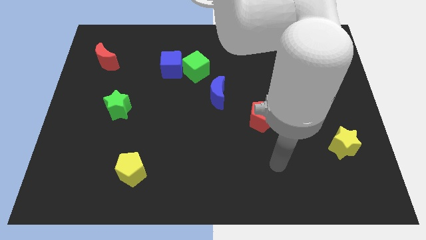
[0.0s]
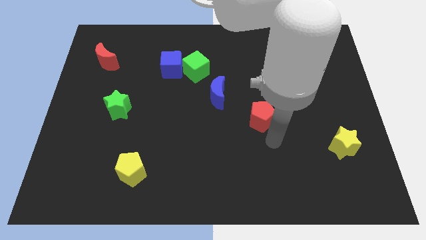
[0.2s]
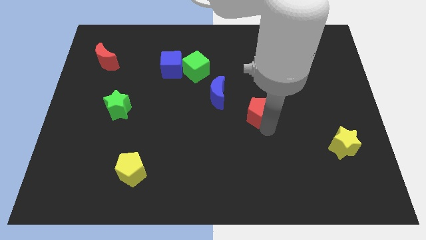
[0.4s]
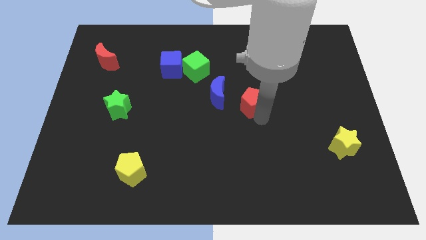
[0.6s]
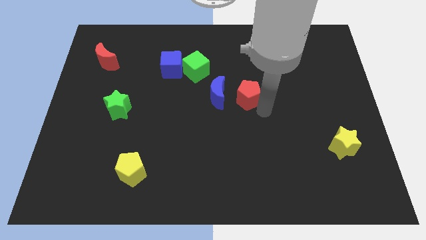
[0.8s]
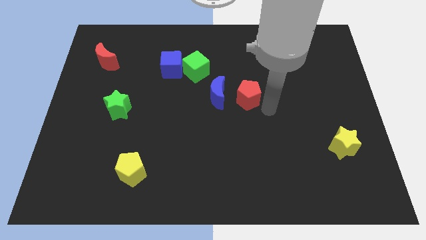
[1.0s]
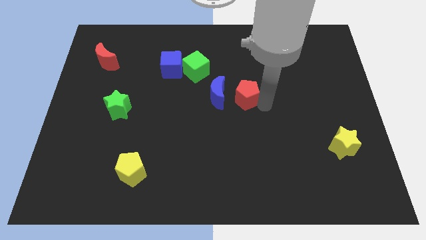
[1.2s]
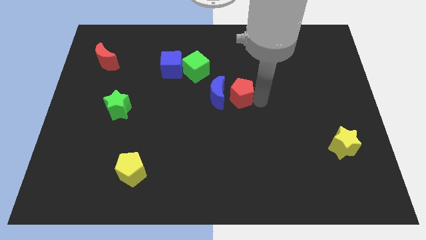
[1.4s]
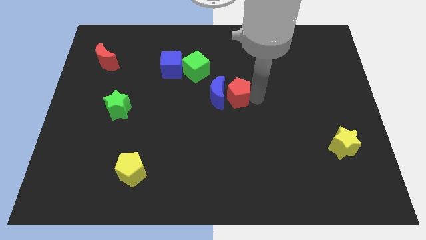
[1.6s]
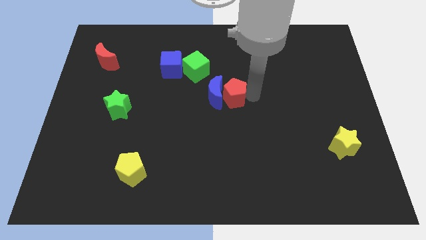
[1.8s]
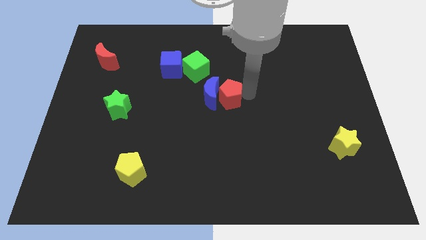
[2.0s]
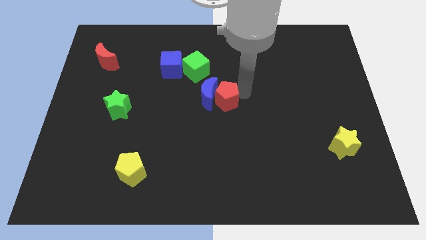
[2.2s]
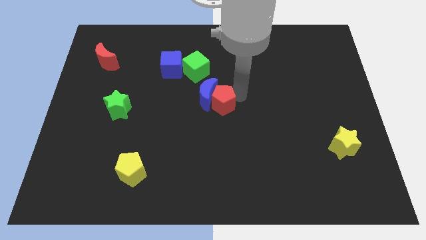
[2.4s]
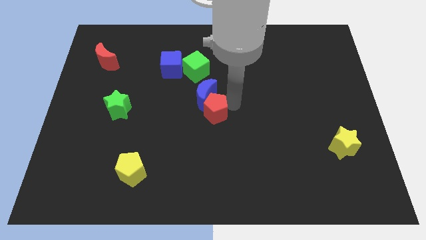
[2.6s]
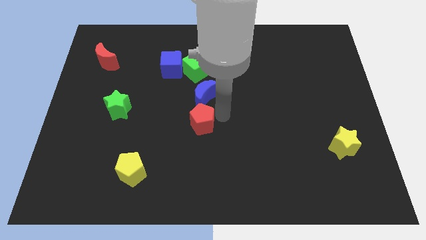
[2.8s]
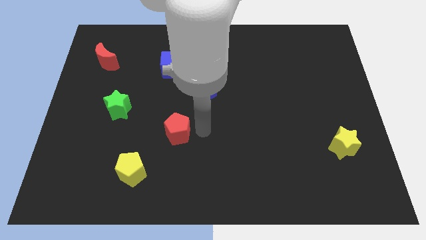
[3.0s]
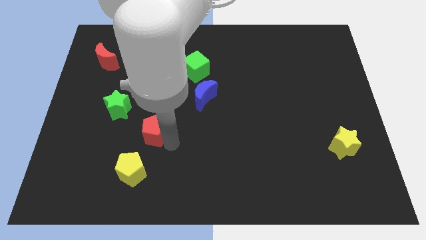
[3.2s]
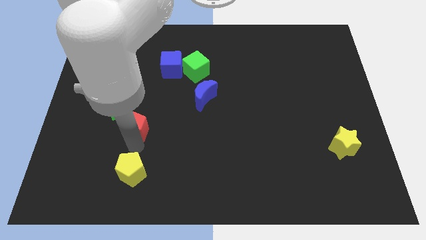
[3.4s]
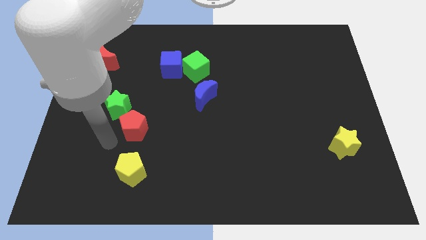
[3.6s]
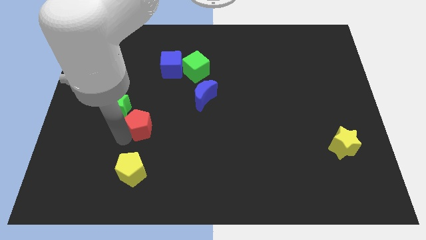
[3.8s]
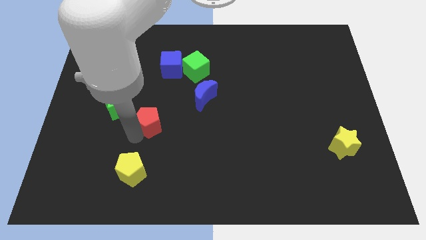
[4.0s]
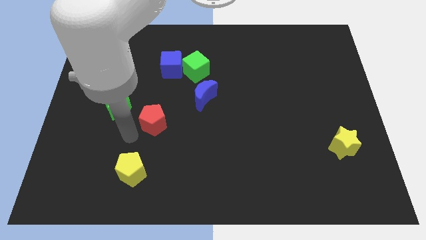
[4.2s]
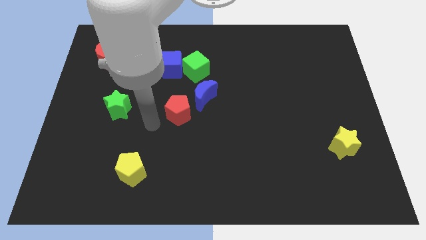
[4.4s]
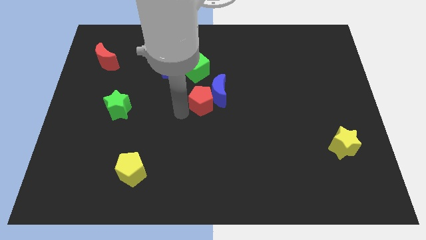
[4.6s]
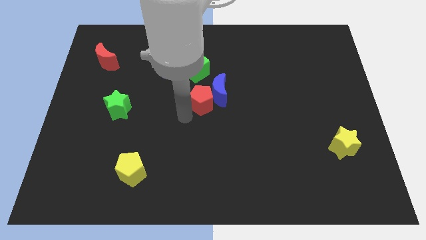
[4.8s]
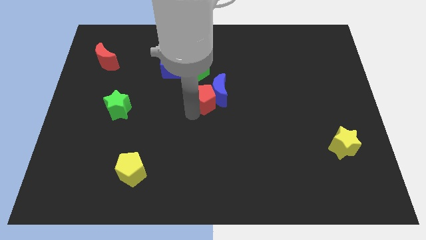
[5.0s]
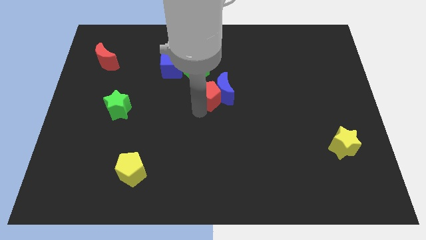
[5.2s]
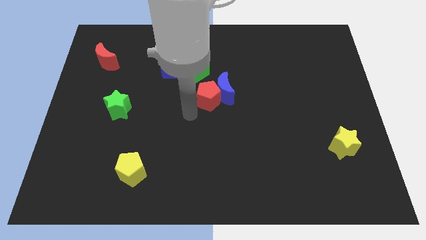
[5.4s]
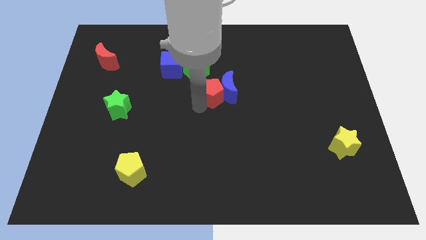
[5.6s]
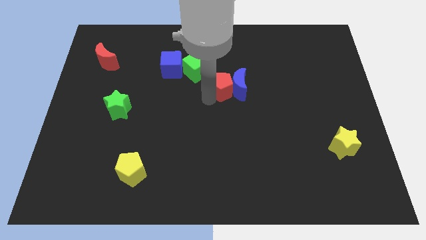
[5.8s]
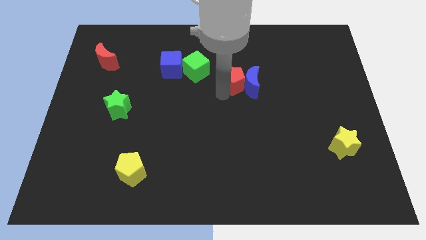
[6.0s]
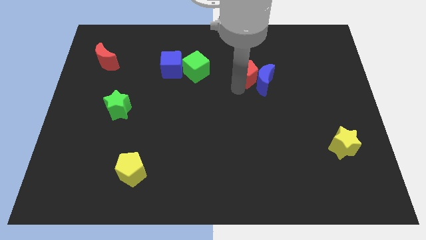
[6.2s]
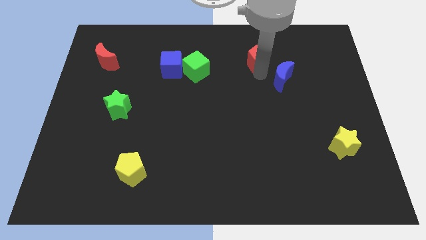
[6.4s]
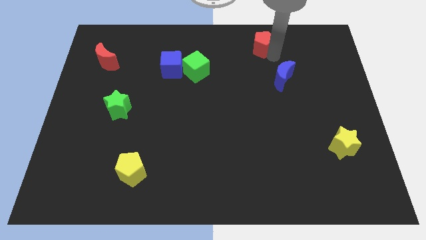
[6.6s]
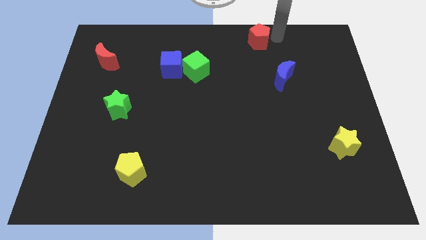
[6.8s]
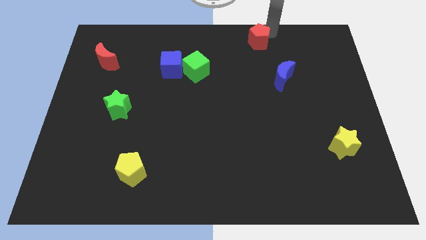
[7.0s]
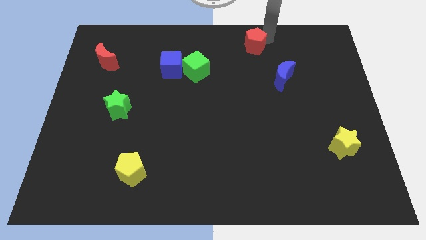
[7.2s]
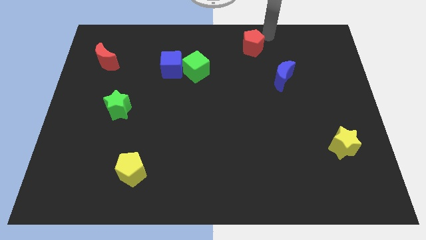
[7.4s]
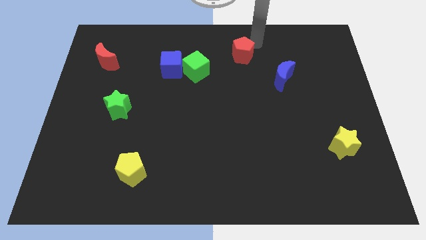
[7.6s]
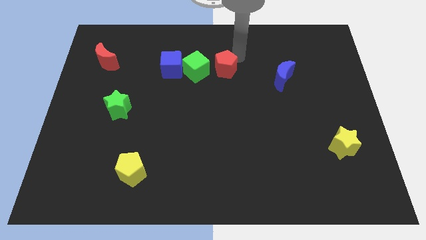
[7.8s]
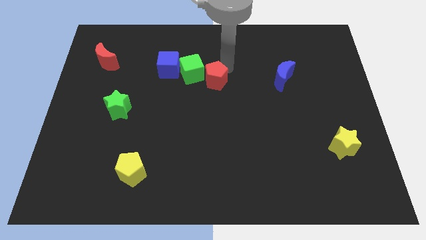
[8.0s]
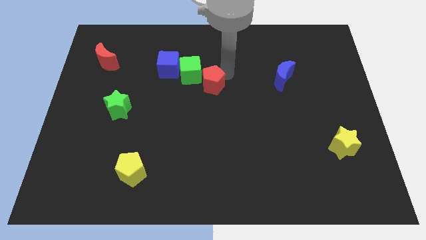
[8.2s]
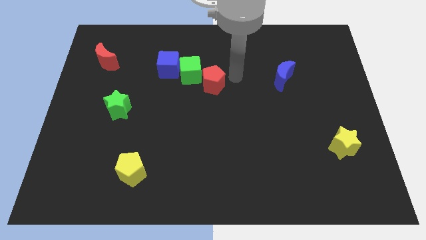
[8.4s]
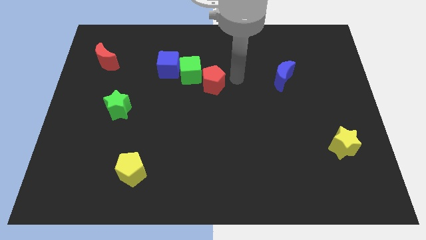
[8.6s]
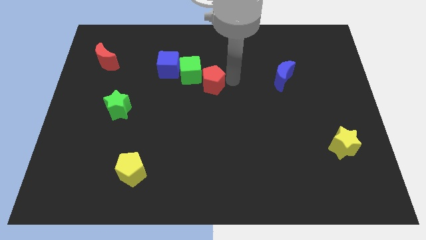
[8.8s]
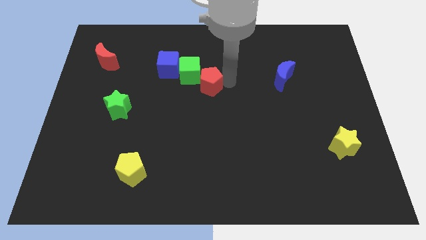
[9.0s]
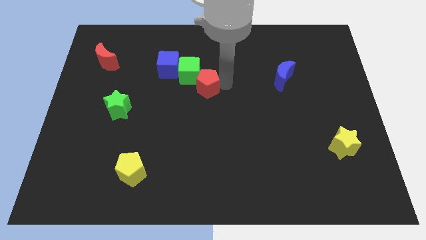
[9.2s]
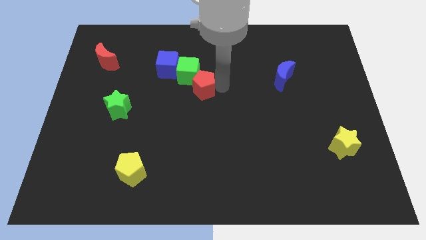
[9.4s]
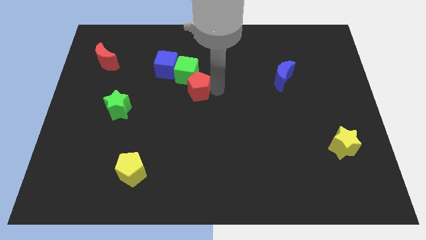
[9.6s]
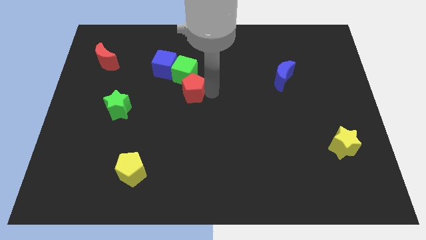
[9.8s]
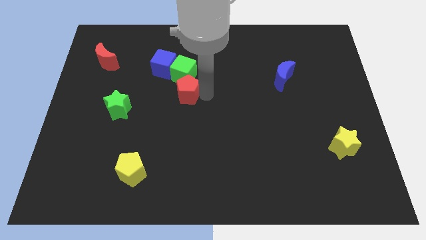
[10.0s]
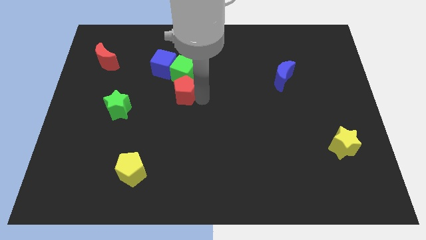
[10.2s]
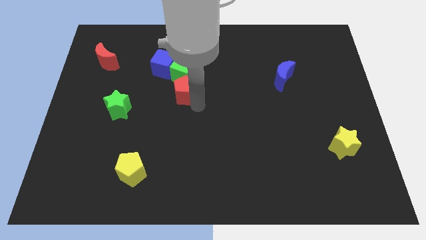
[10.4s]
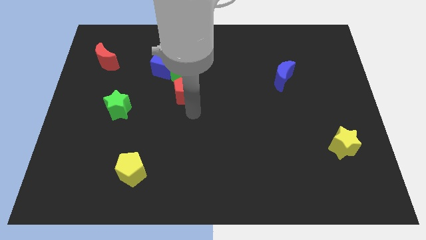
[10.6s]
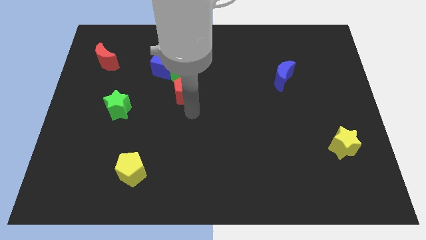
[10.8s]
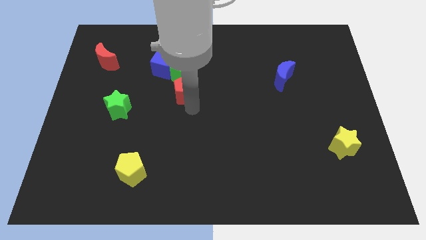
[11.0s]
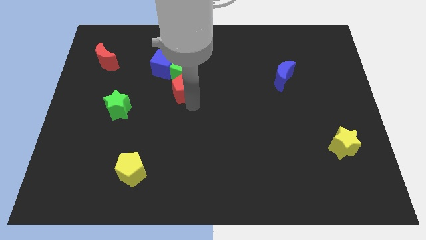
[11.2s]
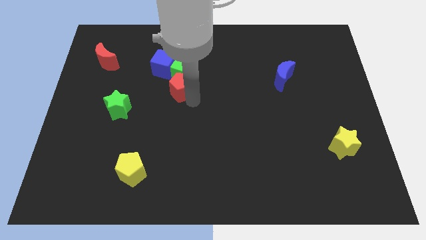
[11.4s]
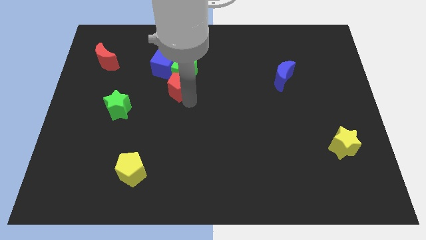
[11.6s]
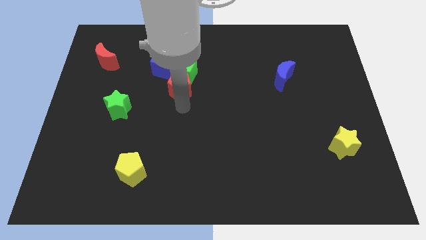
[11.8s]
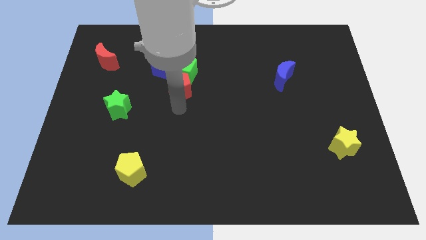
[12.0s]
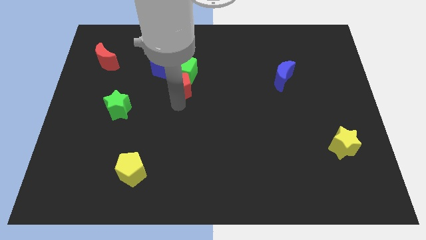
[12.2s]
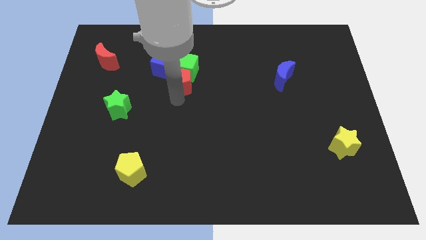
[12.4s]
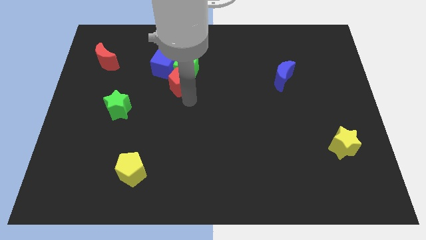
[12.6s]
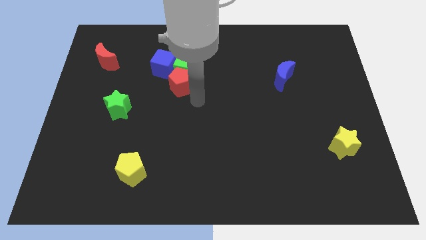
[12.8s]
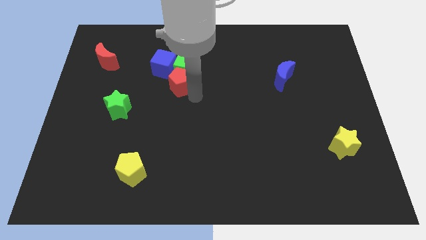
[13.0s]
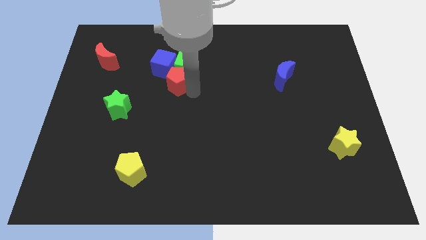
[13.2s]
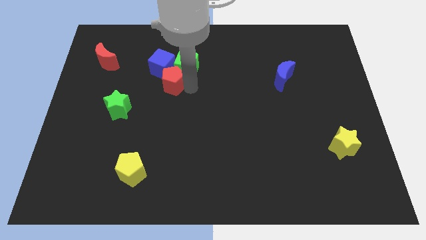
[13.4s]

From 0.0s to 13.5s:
put the red pentagon next to the blue cube
